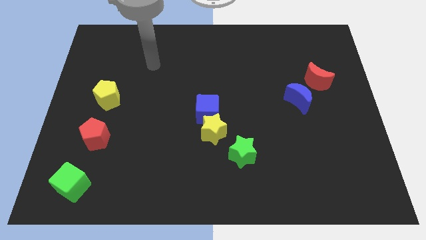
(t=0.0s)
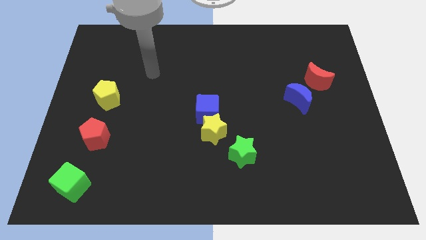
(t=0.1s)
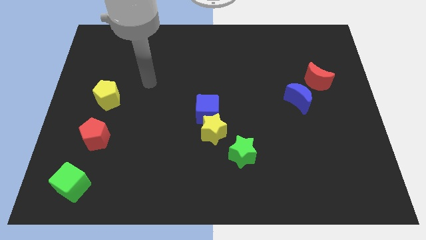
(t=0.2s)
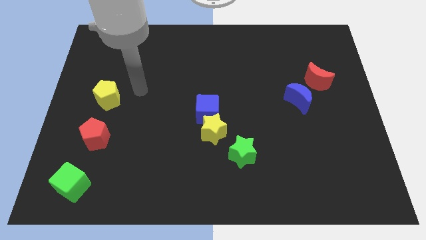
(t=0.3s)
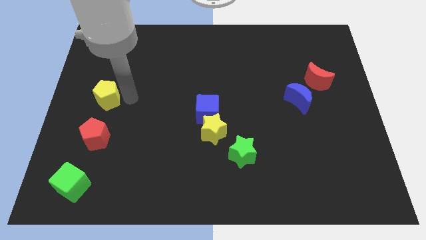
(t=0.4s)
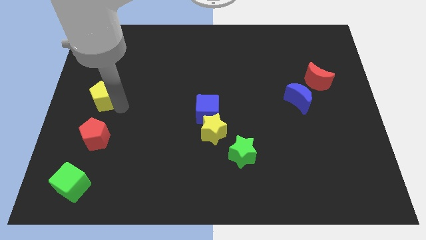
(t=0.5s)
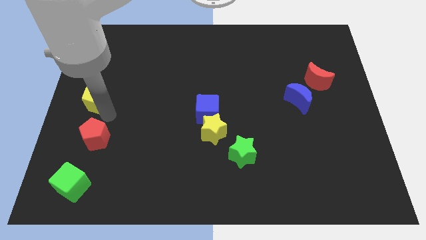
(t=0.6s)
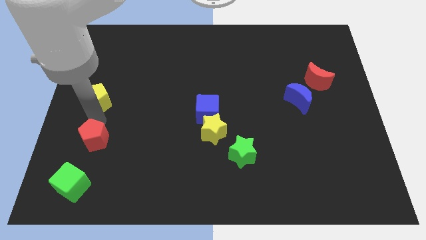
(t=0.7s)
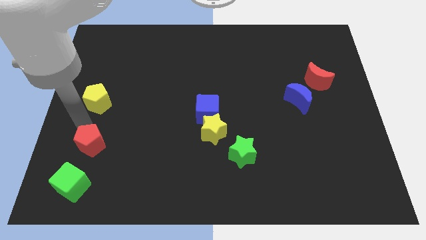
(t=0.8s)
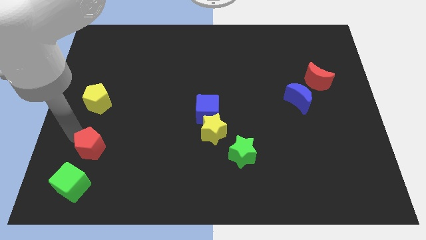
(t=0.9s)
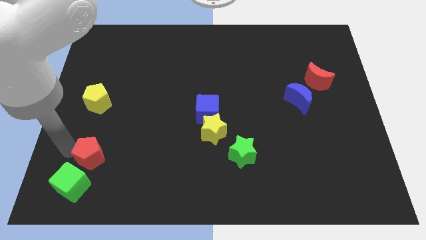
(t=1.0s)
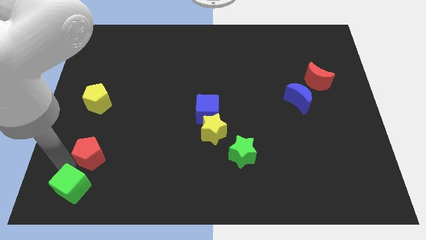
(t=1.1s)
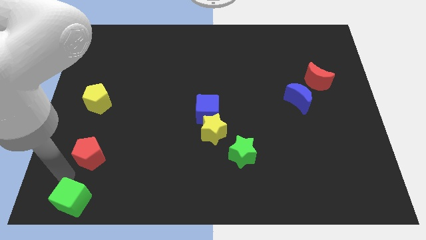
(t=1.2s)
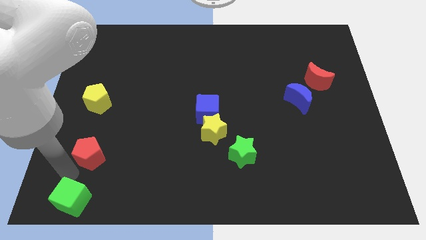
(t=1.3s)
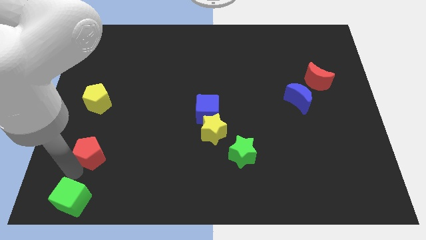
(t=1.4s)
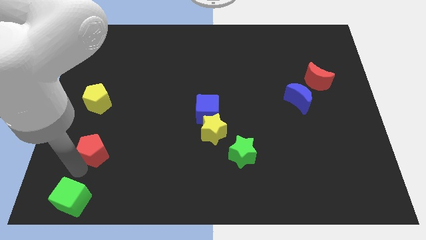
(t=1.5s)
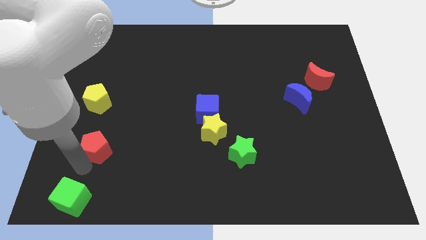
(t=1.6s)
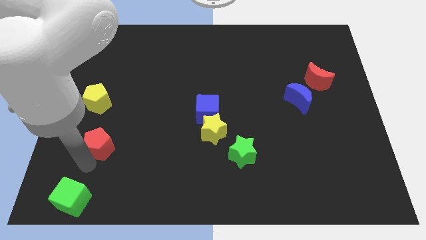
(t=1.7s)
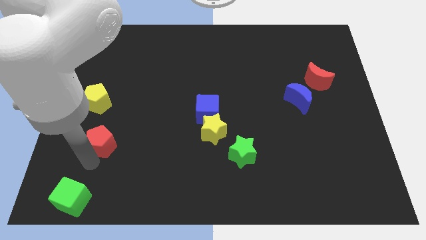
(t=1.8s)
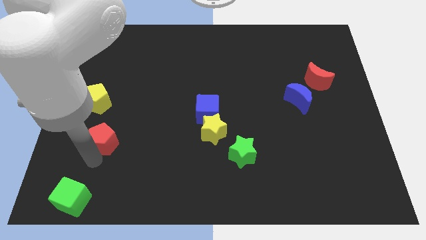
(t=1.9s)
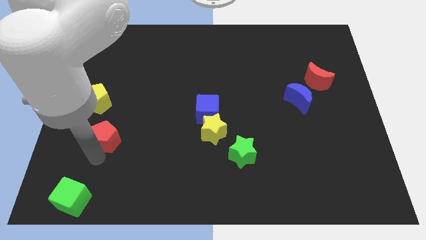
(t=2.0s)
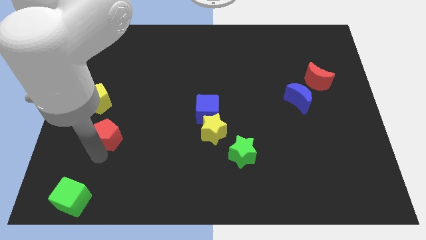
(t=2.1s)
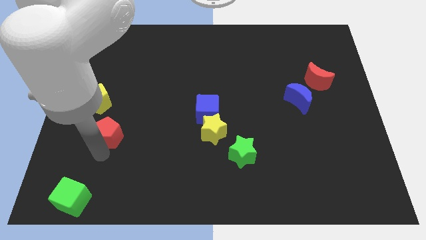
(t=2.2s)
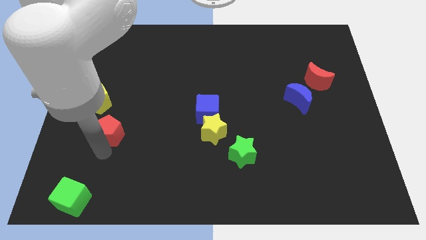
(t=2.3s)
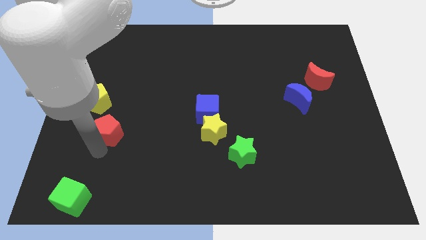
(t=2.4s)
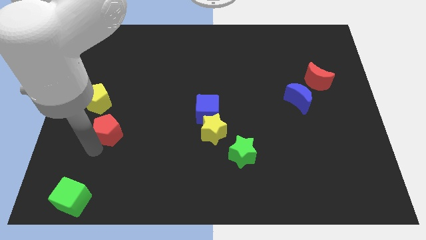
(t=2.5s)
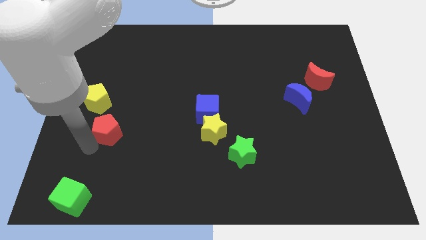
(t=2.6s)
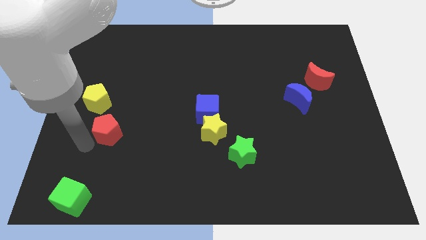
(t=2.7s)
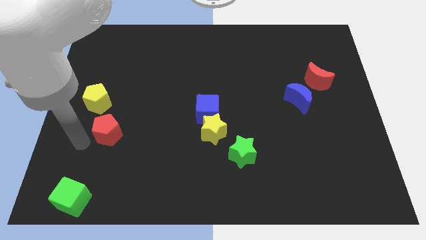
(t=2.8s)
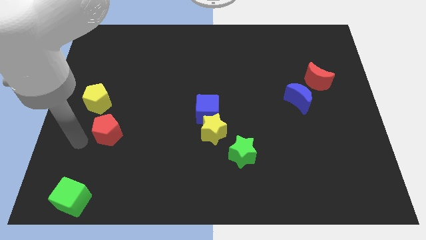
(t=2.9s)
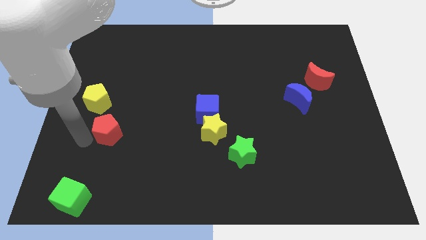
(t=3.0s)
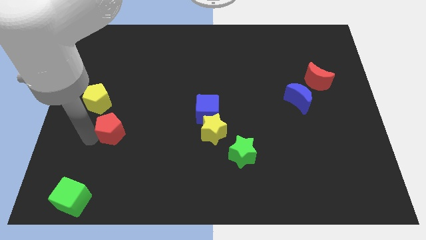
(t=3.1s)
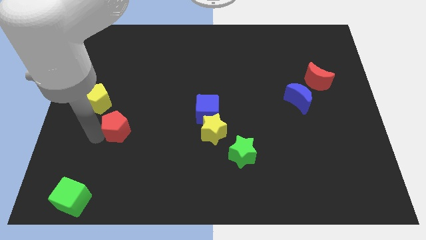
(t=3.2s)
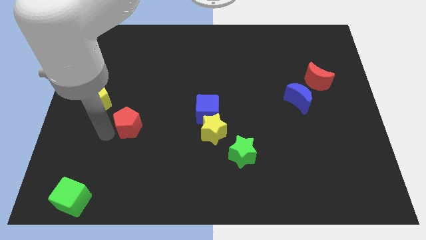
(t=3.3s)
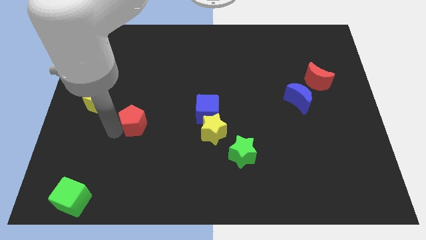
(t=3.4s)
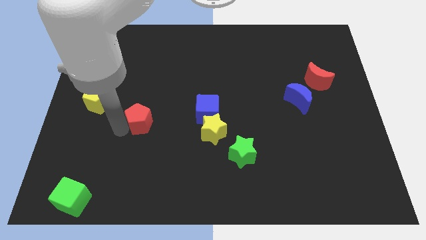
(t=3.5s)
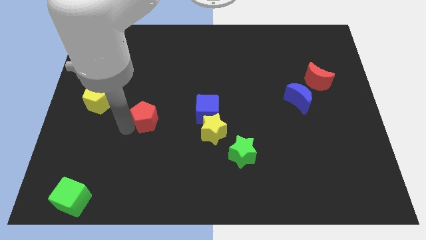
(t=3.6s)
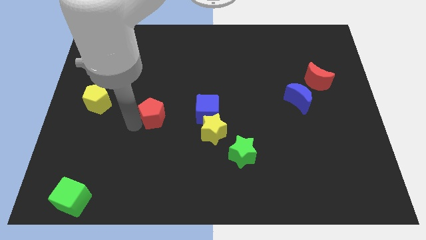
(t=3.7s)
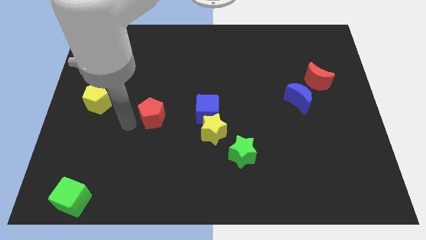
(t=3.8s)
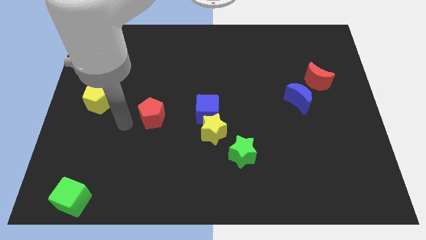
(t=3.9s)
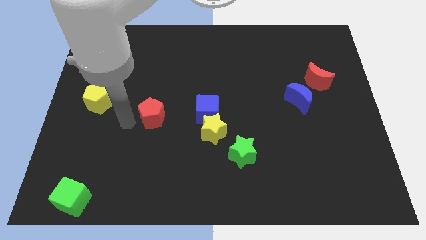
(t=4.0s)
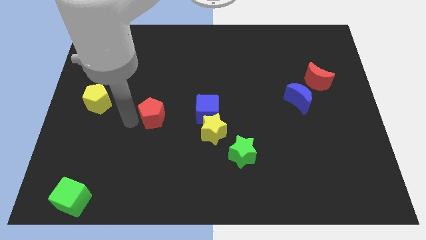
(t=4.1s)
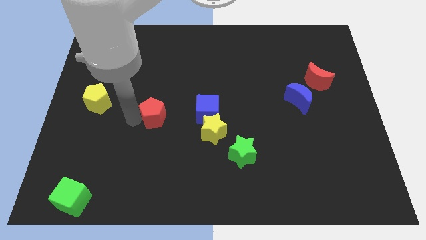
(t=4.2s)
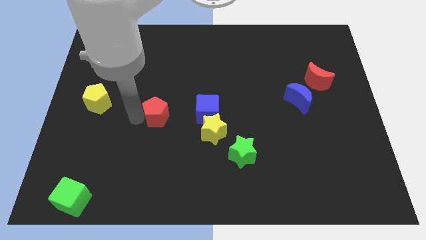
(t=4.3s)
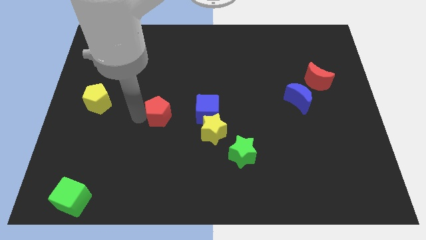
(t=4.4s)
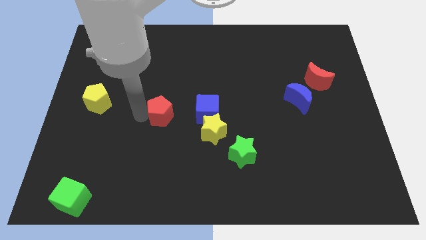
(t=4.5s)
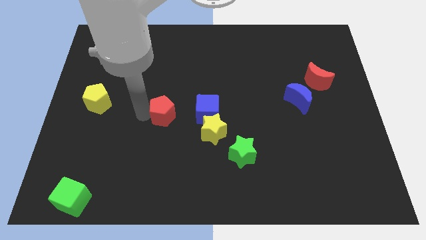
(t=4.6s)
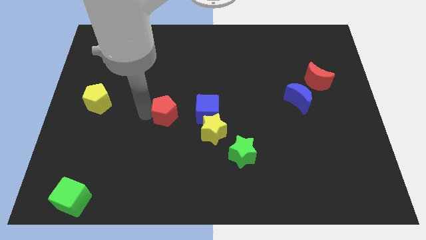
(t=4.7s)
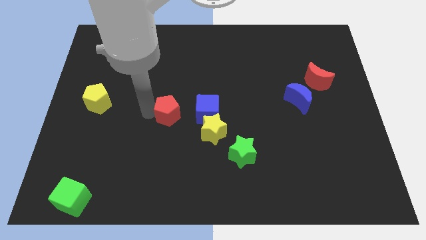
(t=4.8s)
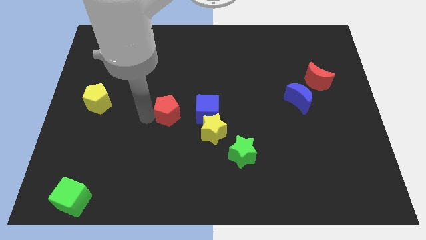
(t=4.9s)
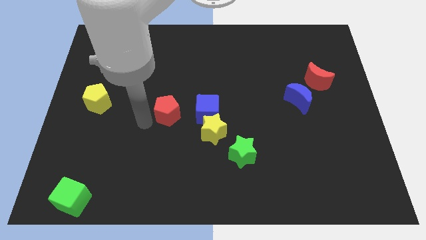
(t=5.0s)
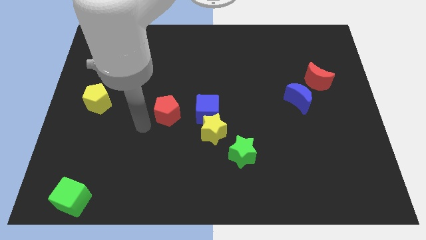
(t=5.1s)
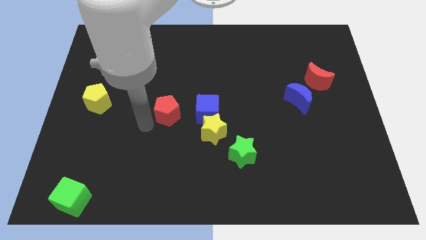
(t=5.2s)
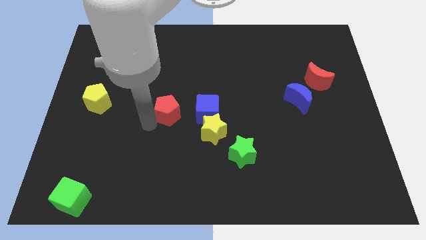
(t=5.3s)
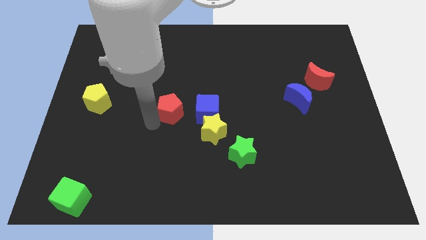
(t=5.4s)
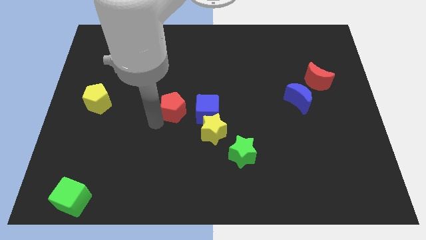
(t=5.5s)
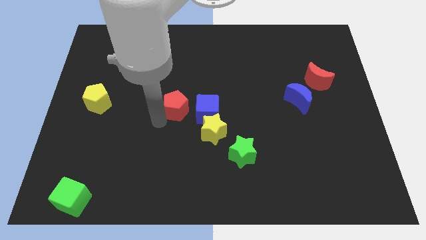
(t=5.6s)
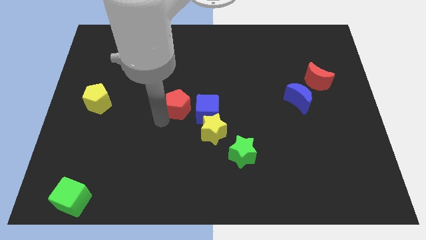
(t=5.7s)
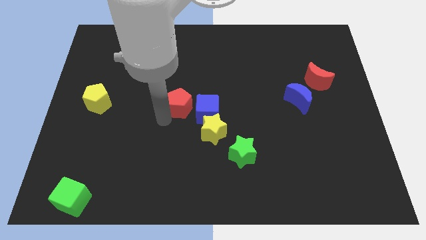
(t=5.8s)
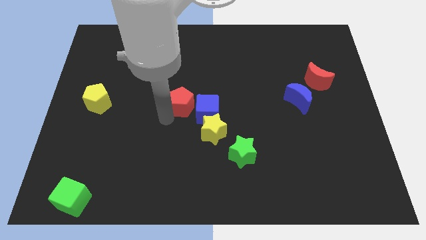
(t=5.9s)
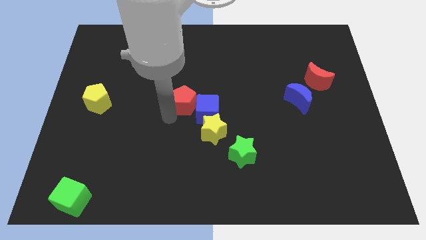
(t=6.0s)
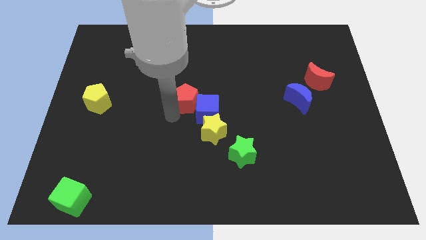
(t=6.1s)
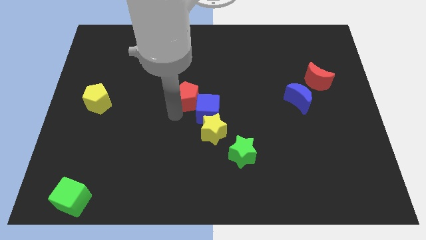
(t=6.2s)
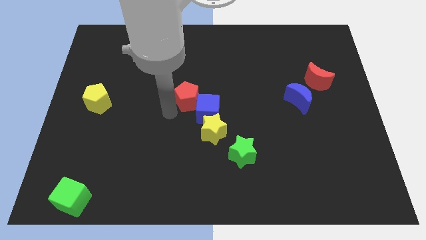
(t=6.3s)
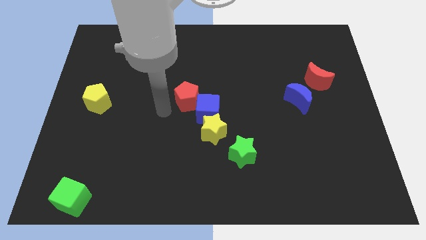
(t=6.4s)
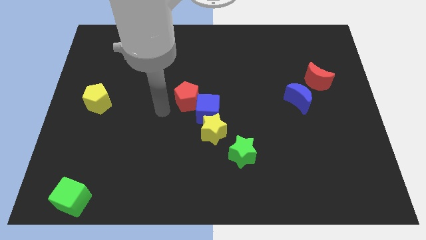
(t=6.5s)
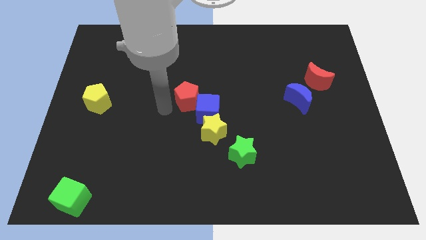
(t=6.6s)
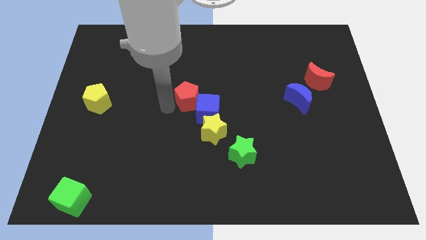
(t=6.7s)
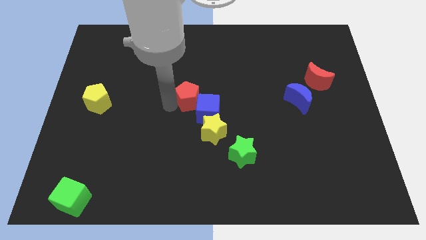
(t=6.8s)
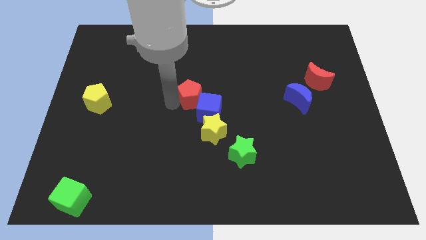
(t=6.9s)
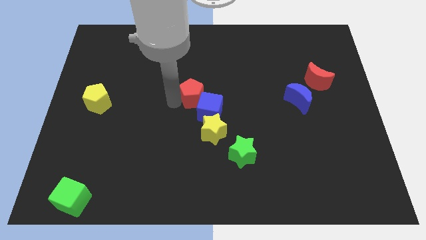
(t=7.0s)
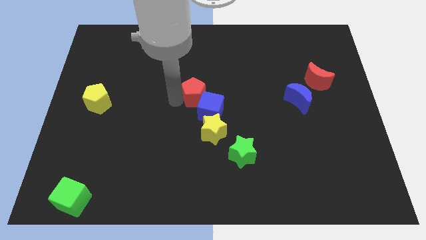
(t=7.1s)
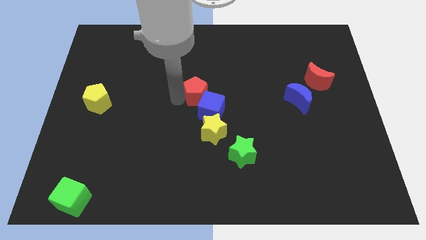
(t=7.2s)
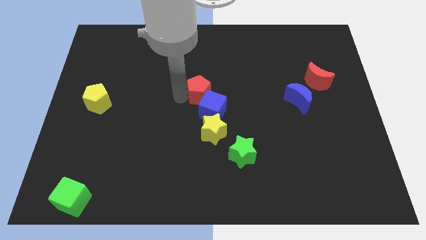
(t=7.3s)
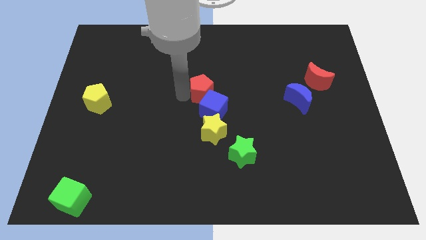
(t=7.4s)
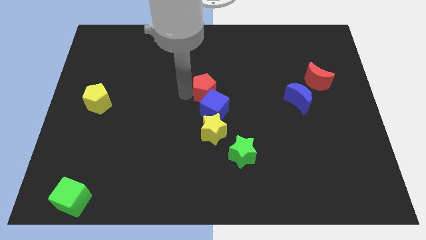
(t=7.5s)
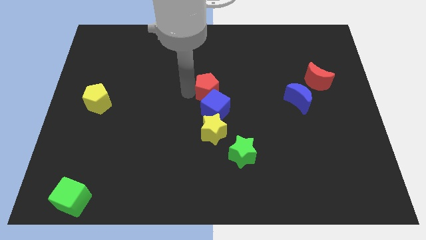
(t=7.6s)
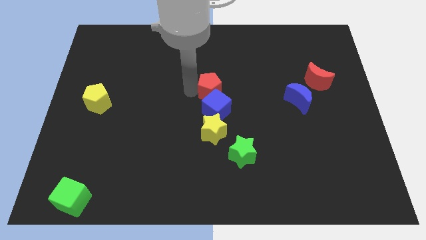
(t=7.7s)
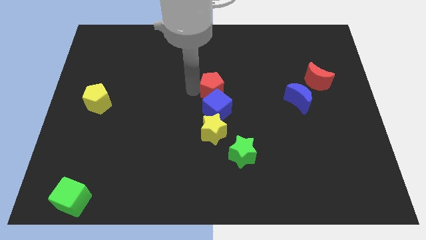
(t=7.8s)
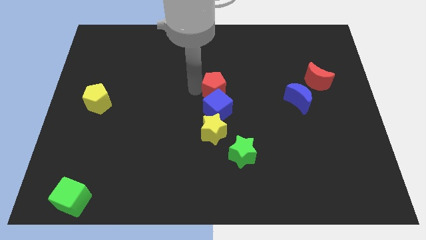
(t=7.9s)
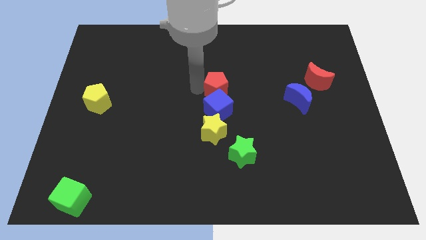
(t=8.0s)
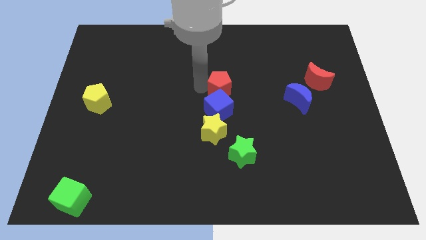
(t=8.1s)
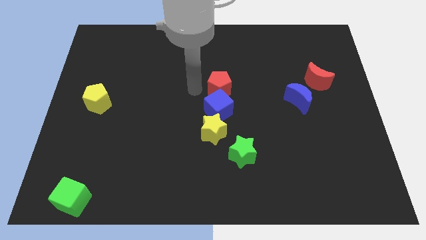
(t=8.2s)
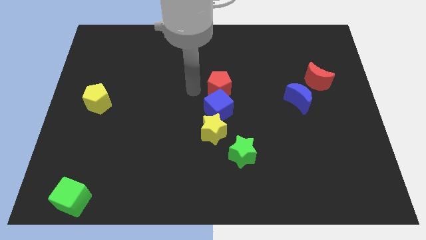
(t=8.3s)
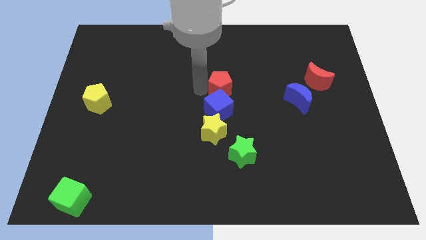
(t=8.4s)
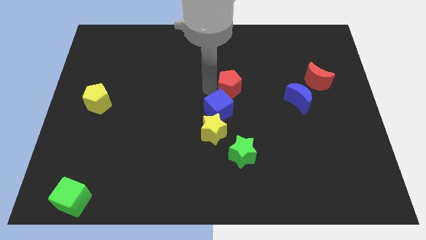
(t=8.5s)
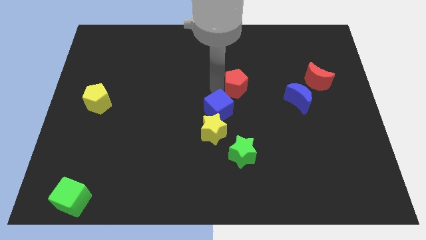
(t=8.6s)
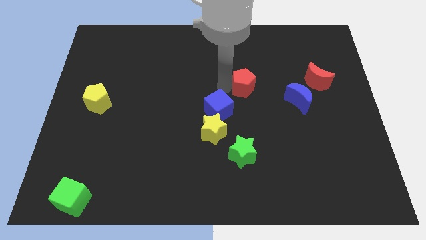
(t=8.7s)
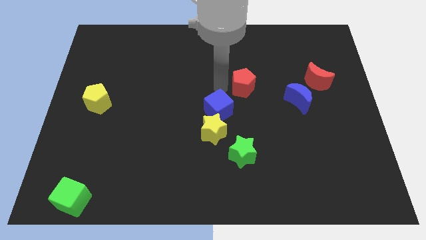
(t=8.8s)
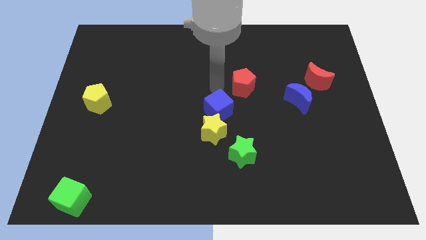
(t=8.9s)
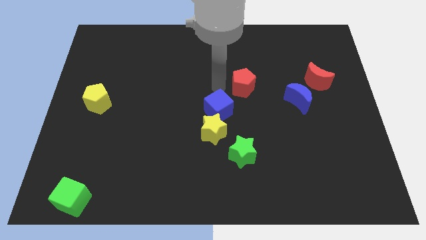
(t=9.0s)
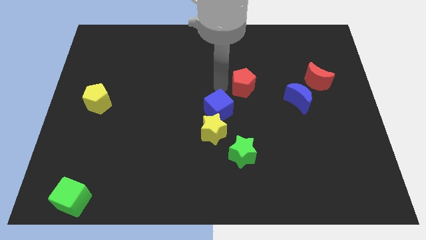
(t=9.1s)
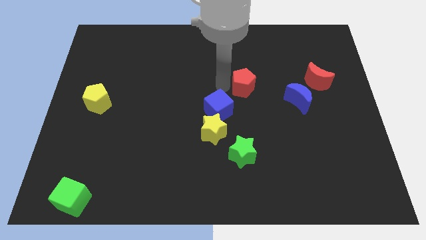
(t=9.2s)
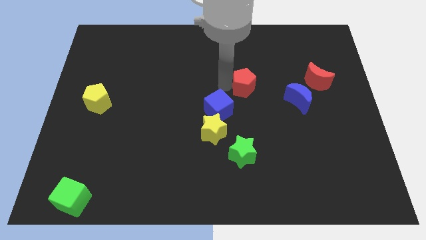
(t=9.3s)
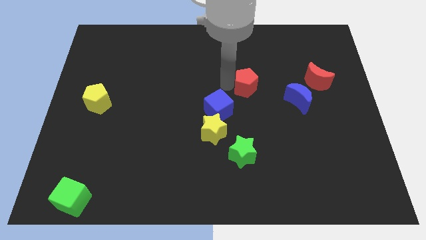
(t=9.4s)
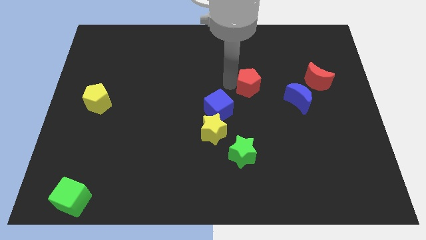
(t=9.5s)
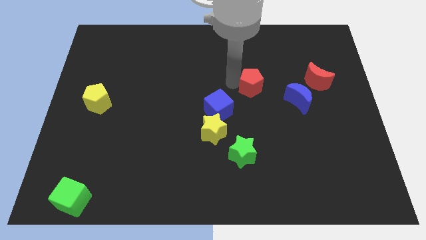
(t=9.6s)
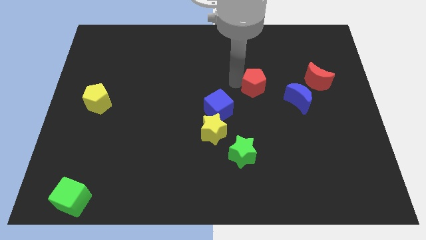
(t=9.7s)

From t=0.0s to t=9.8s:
slide the red pentagon diagonally up and to the left of the blue moon
